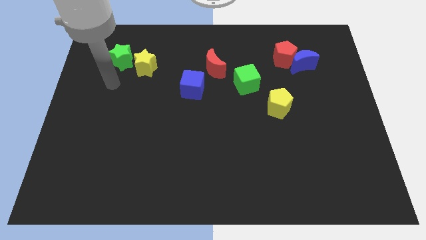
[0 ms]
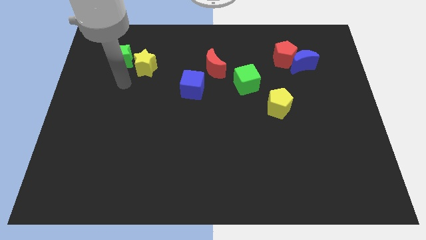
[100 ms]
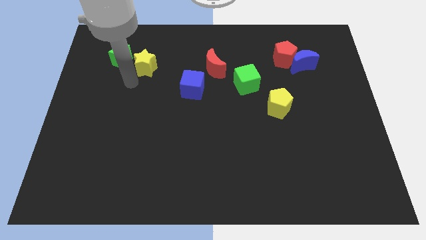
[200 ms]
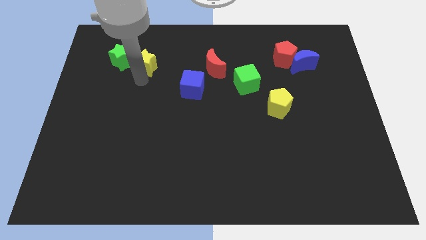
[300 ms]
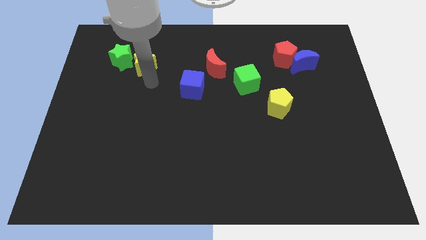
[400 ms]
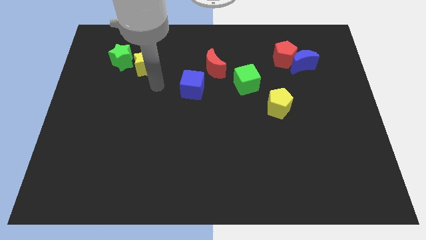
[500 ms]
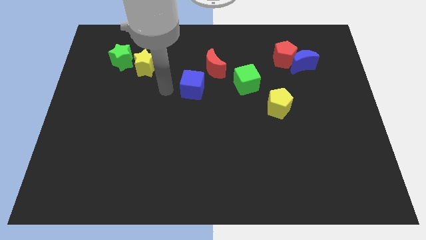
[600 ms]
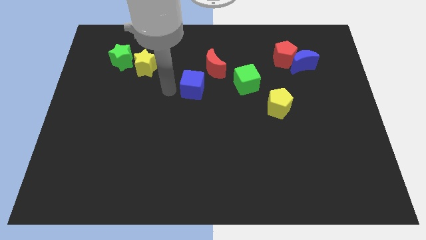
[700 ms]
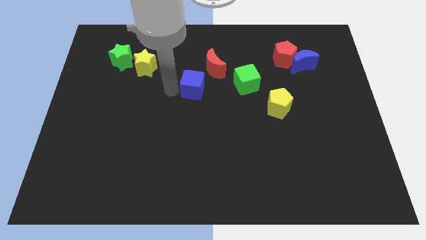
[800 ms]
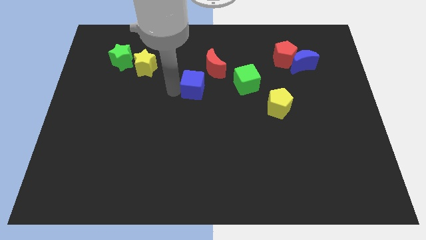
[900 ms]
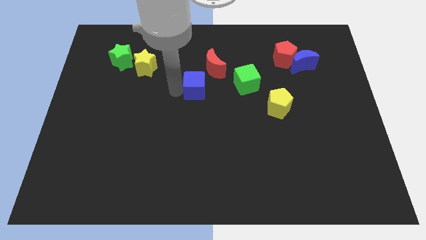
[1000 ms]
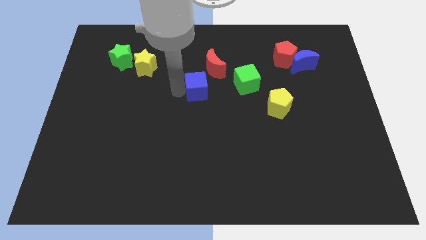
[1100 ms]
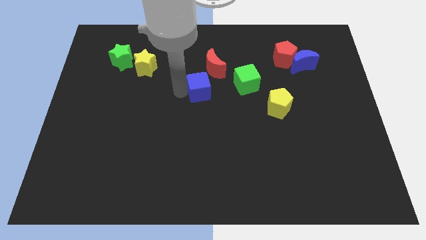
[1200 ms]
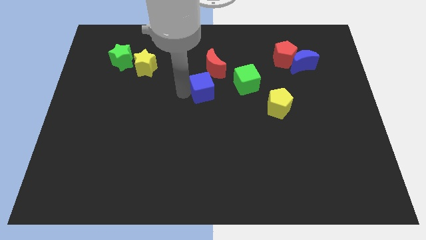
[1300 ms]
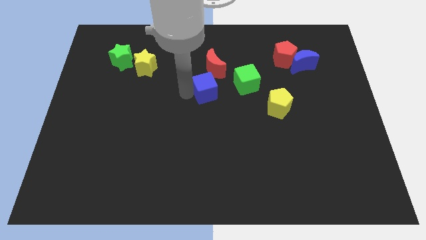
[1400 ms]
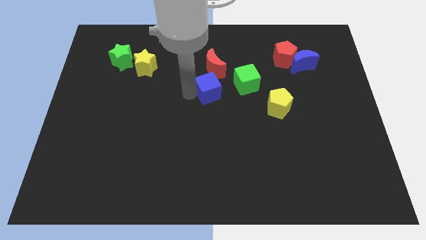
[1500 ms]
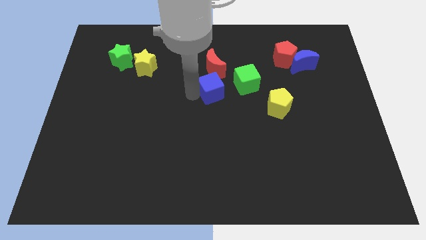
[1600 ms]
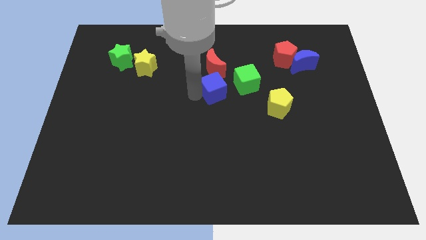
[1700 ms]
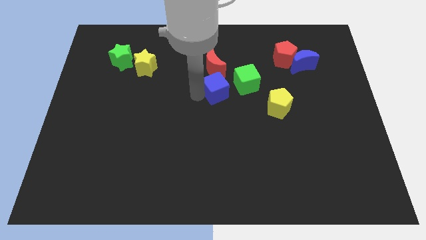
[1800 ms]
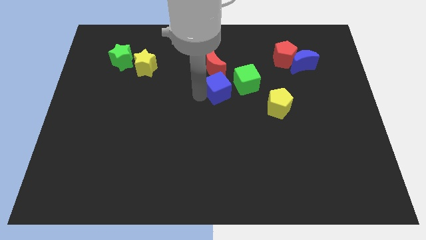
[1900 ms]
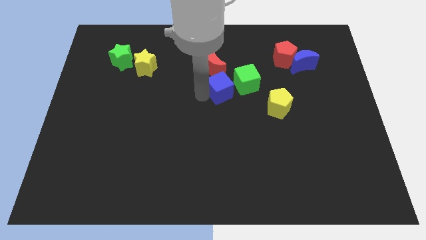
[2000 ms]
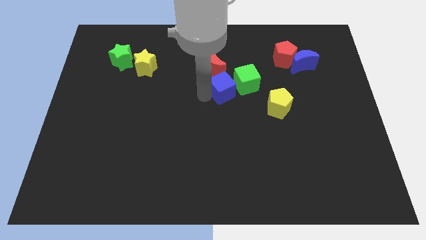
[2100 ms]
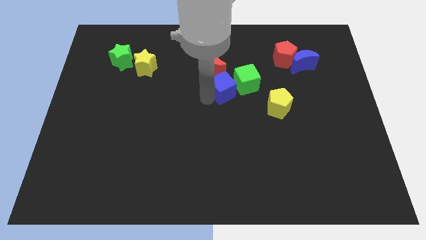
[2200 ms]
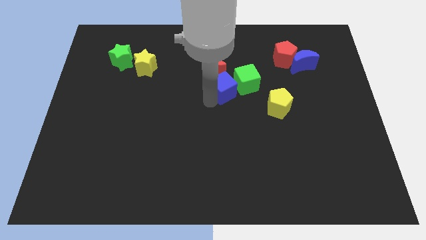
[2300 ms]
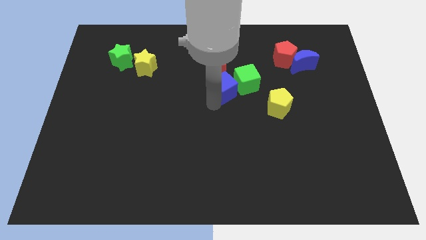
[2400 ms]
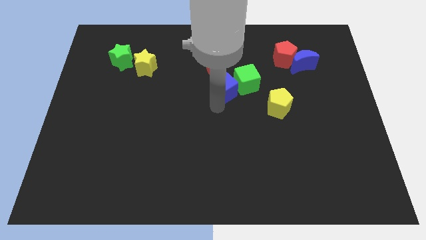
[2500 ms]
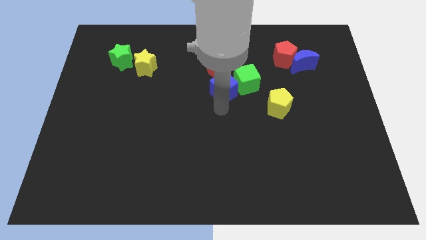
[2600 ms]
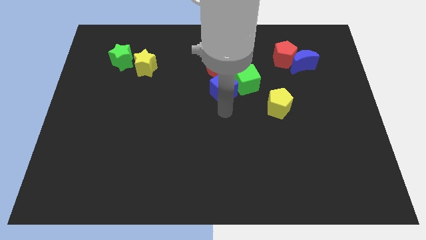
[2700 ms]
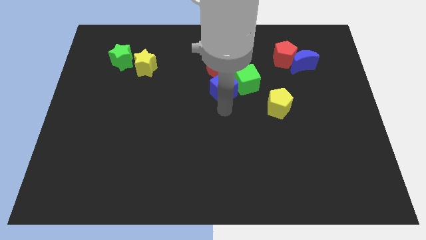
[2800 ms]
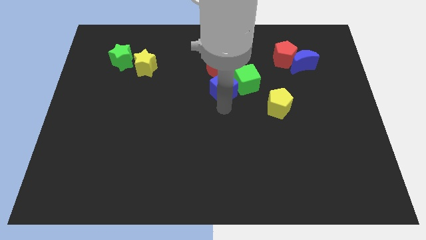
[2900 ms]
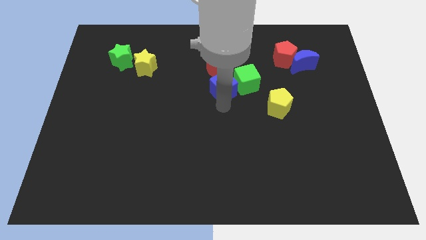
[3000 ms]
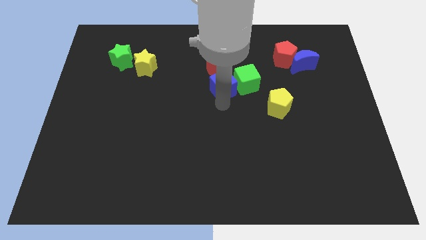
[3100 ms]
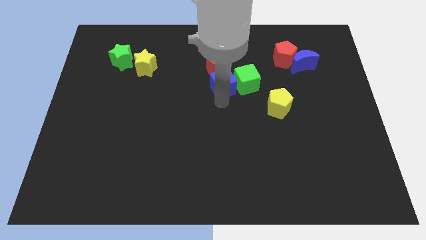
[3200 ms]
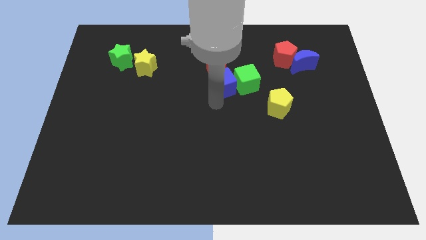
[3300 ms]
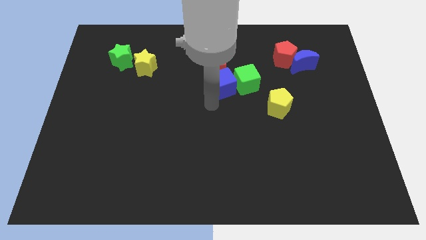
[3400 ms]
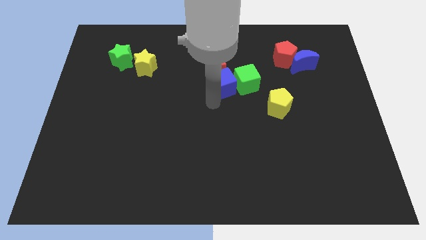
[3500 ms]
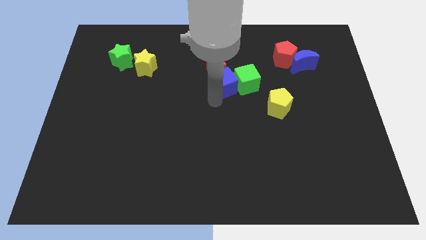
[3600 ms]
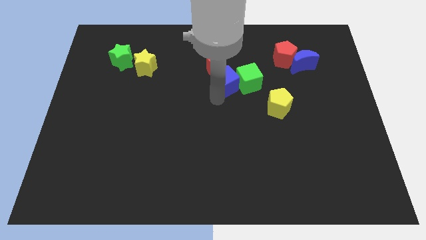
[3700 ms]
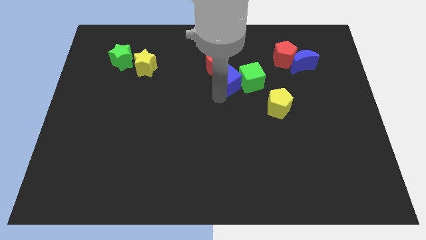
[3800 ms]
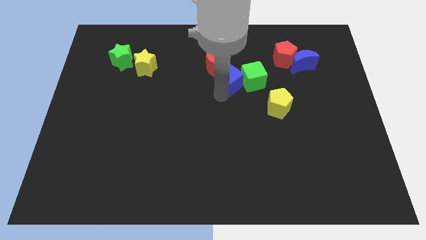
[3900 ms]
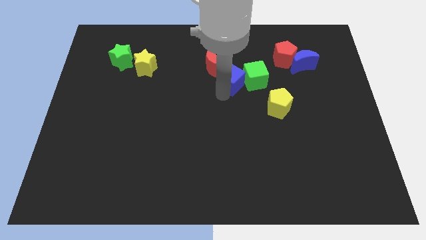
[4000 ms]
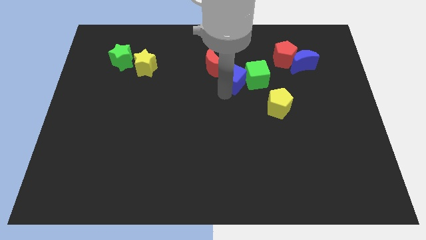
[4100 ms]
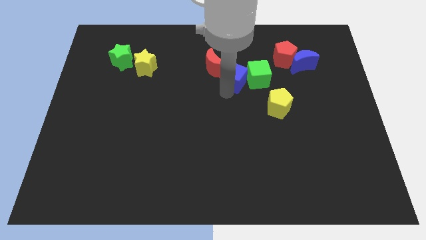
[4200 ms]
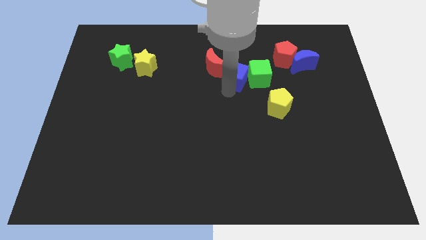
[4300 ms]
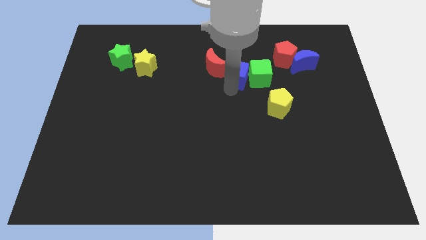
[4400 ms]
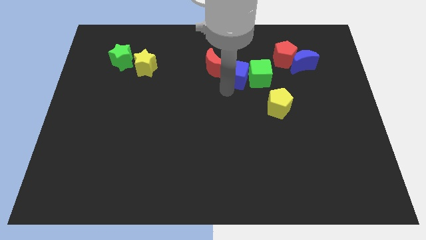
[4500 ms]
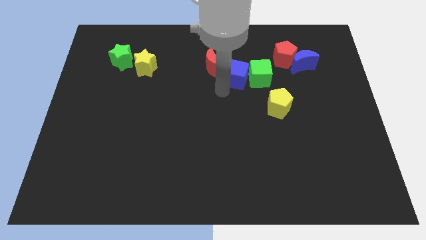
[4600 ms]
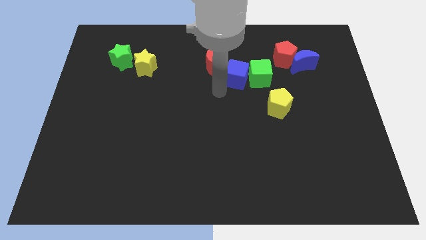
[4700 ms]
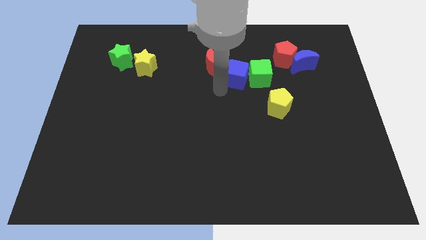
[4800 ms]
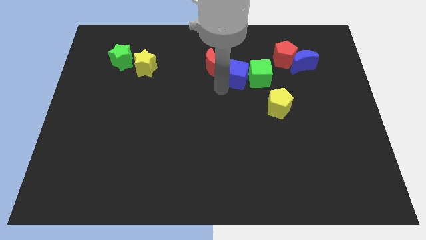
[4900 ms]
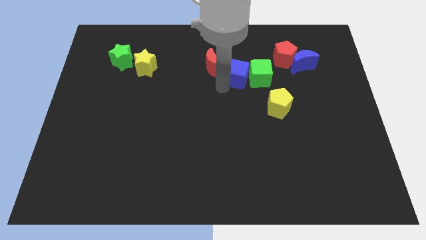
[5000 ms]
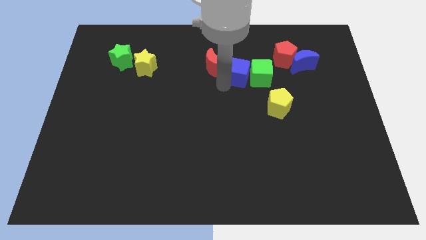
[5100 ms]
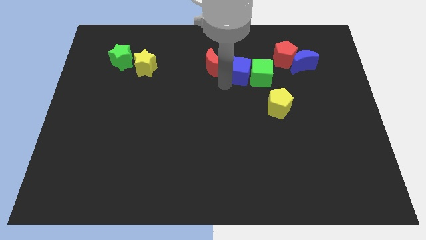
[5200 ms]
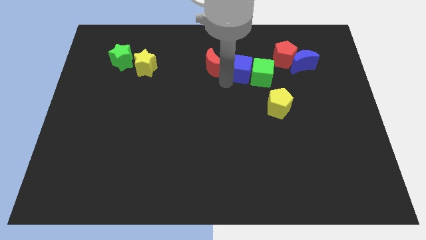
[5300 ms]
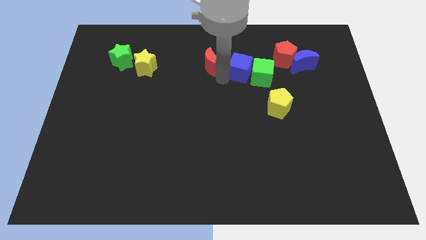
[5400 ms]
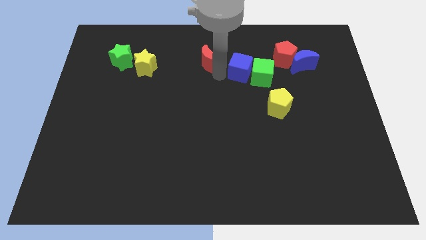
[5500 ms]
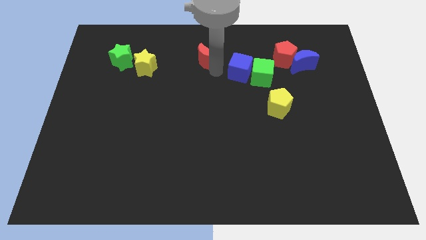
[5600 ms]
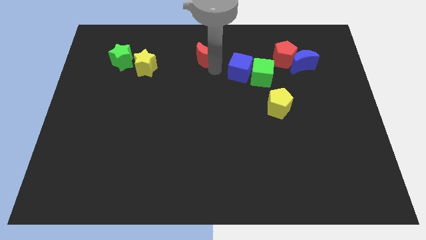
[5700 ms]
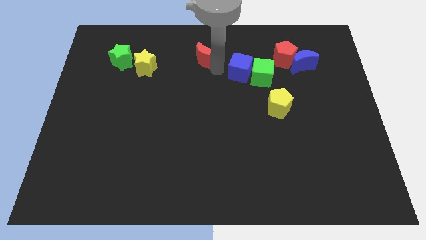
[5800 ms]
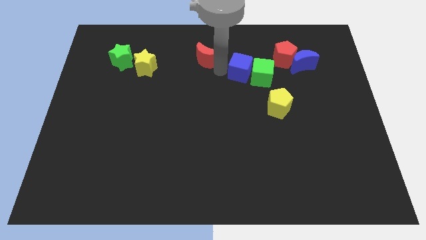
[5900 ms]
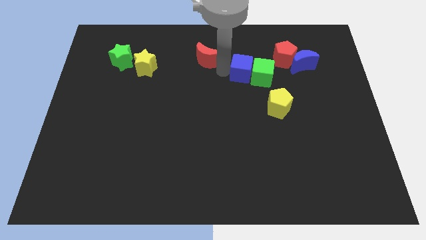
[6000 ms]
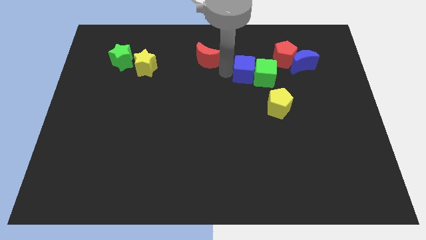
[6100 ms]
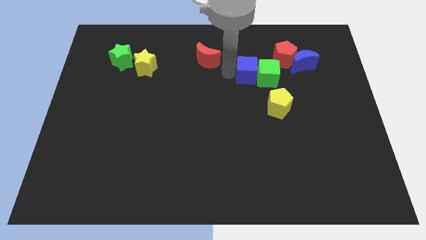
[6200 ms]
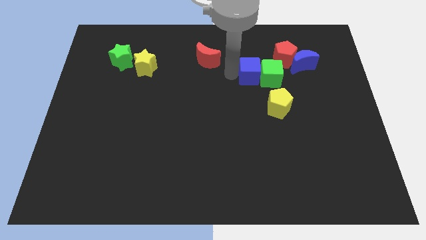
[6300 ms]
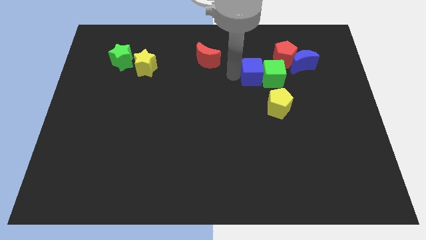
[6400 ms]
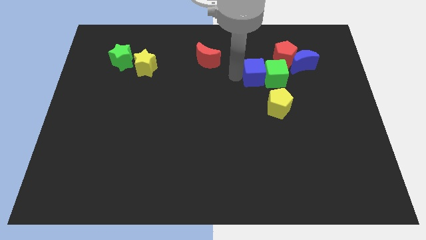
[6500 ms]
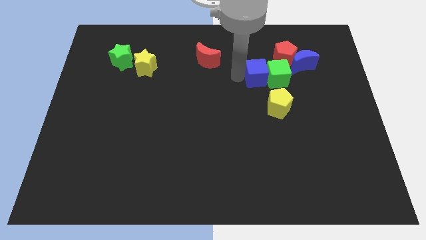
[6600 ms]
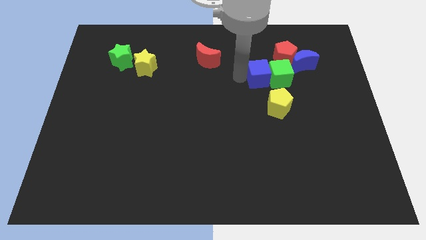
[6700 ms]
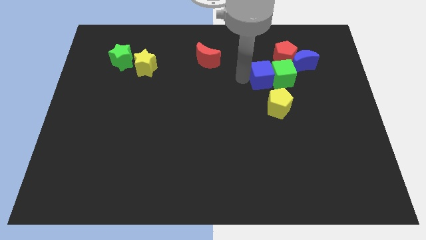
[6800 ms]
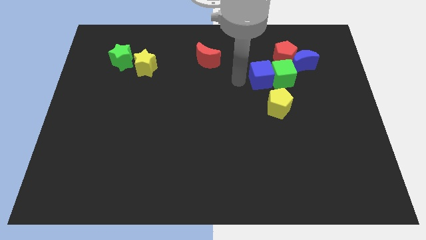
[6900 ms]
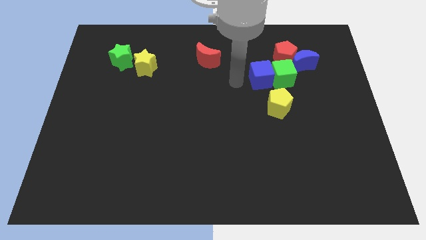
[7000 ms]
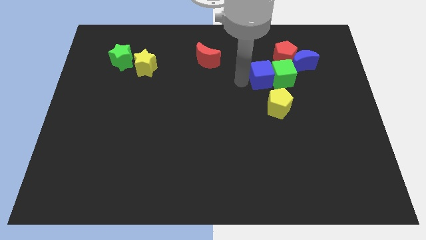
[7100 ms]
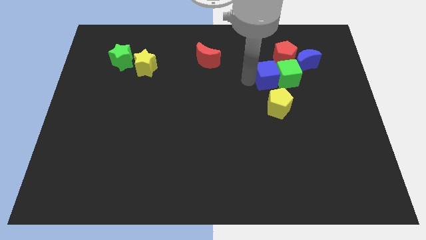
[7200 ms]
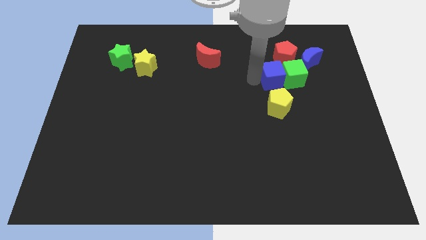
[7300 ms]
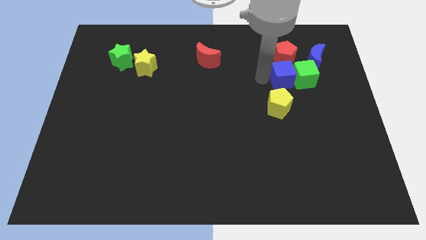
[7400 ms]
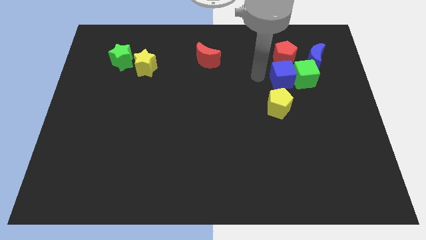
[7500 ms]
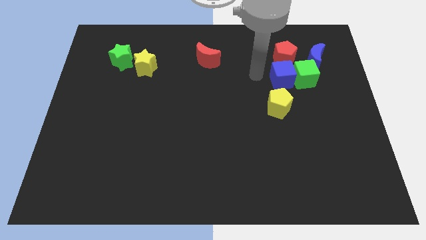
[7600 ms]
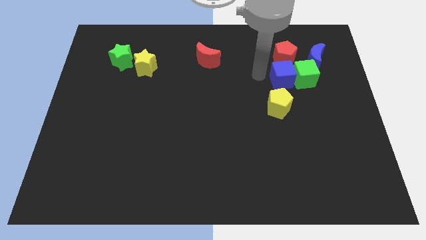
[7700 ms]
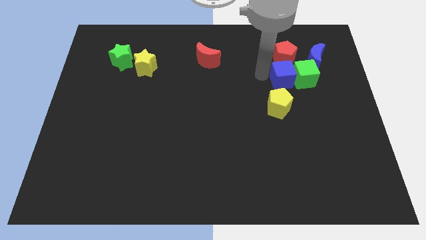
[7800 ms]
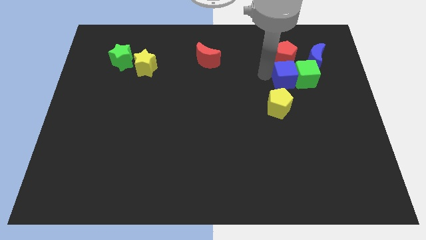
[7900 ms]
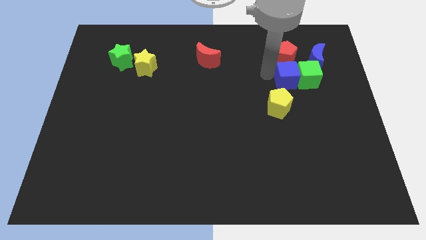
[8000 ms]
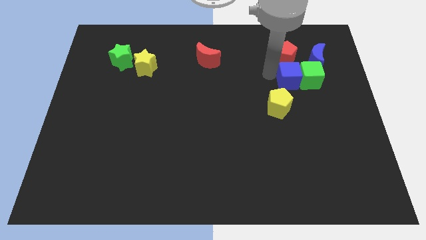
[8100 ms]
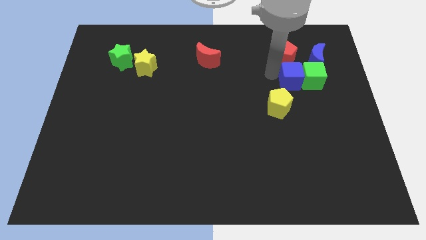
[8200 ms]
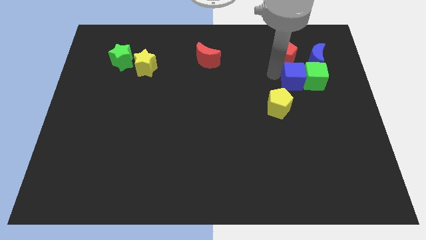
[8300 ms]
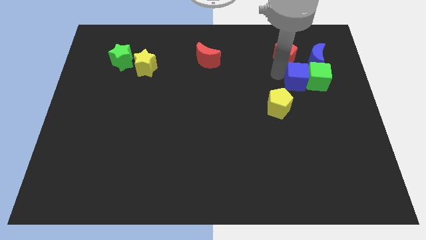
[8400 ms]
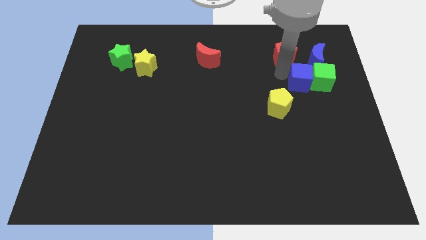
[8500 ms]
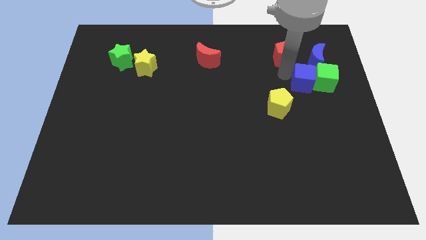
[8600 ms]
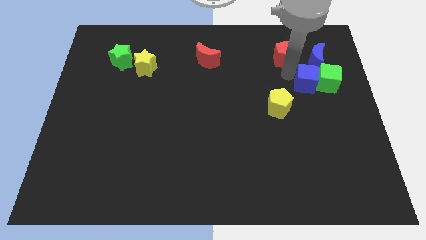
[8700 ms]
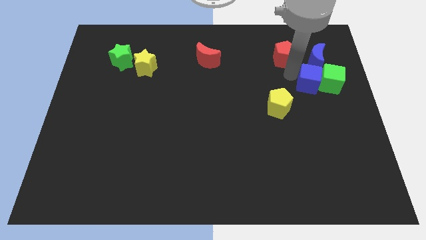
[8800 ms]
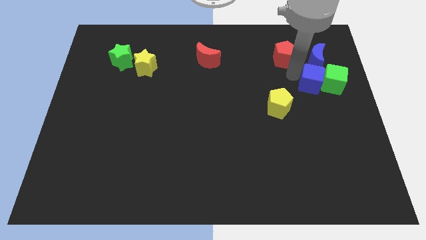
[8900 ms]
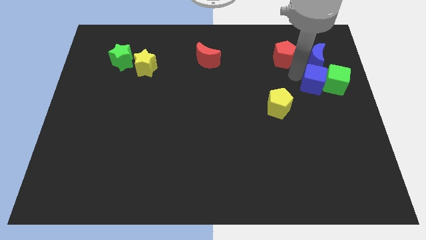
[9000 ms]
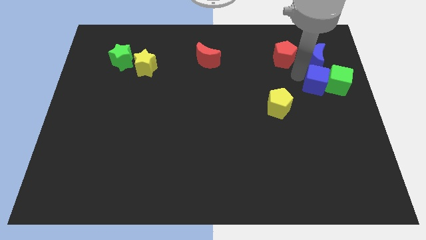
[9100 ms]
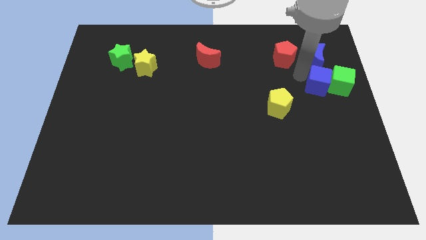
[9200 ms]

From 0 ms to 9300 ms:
push the blue cube to the center right
